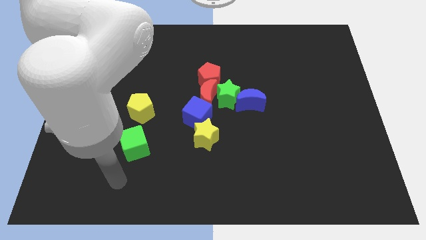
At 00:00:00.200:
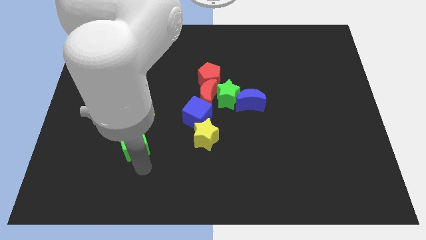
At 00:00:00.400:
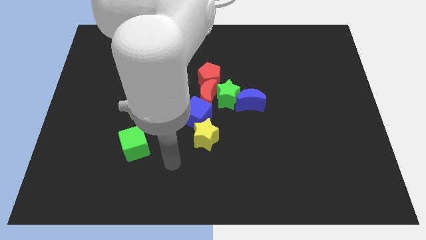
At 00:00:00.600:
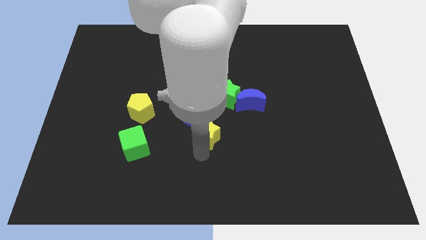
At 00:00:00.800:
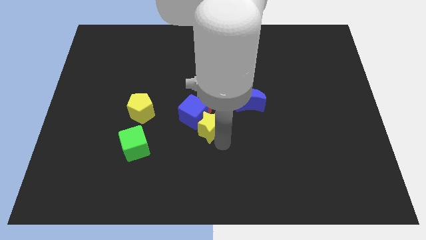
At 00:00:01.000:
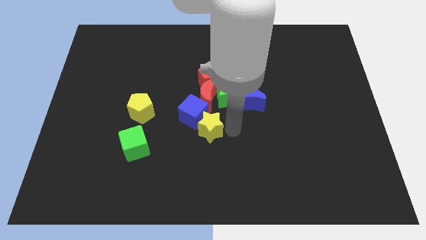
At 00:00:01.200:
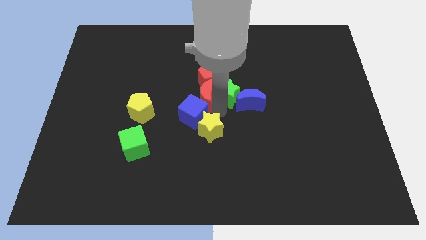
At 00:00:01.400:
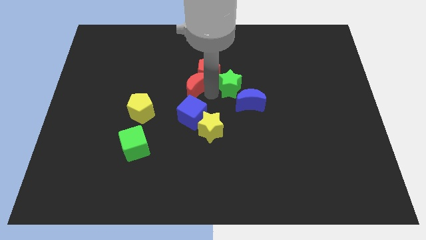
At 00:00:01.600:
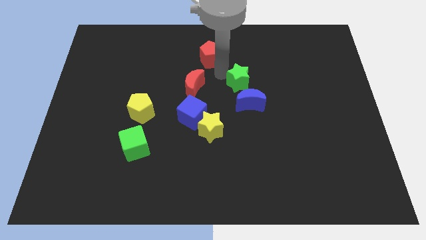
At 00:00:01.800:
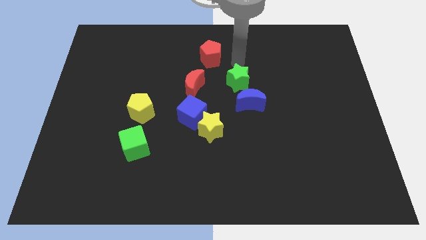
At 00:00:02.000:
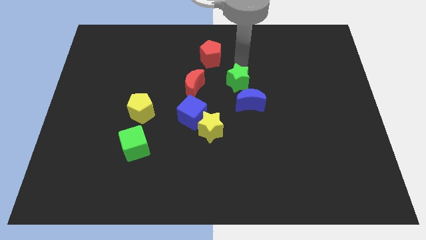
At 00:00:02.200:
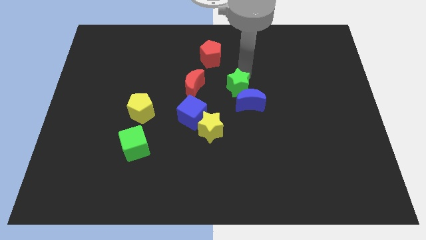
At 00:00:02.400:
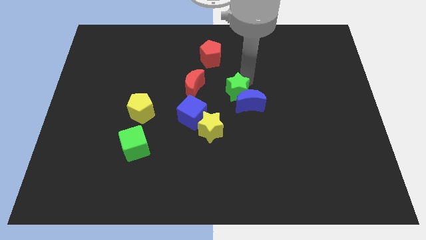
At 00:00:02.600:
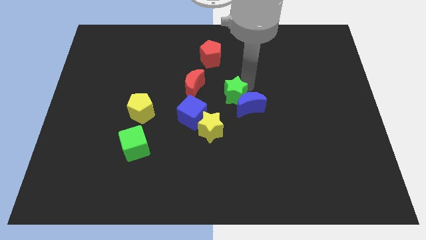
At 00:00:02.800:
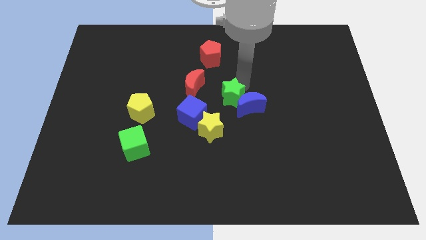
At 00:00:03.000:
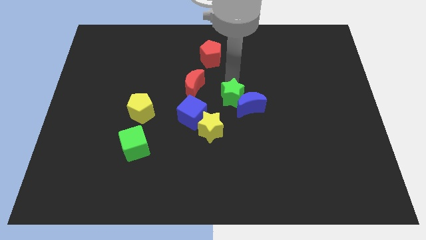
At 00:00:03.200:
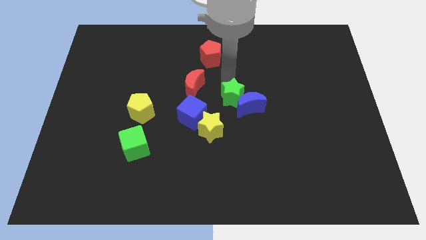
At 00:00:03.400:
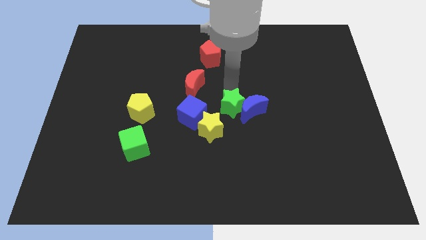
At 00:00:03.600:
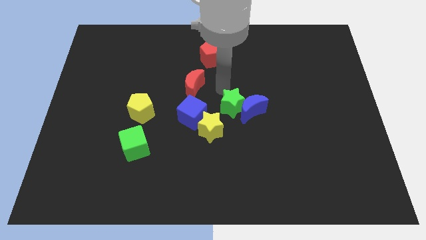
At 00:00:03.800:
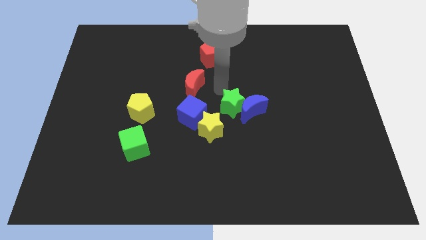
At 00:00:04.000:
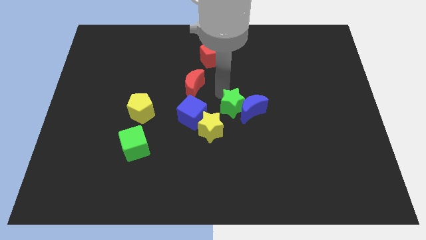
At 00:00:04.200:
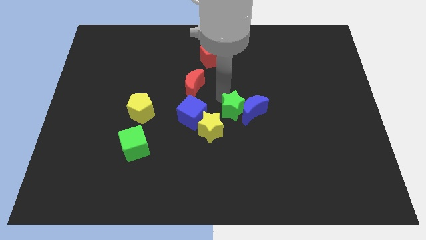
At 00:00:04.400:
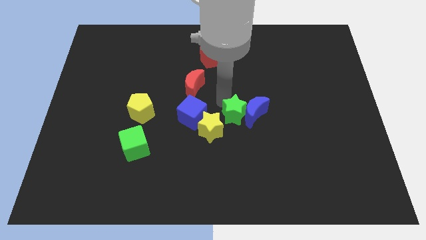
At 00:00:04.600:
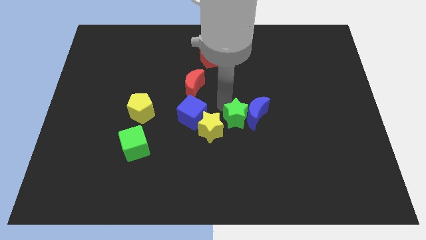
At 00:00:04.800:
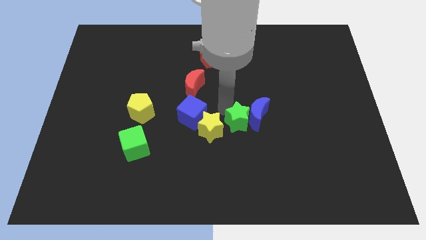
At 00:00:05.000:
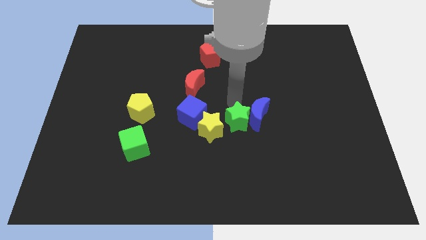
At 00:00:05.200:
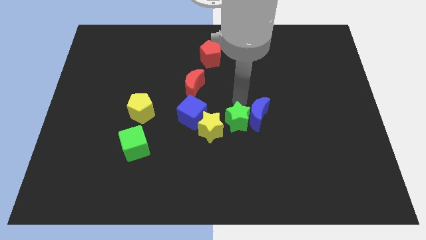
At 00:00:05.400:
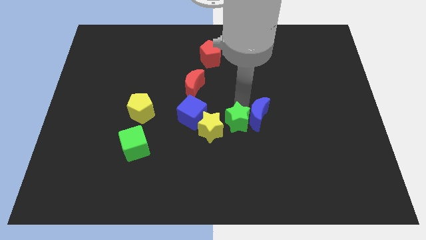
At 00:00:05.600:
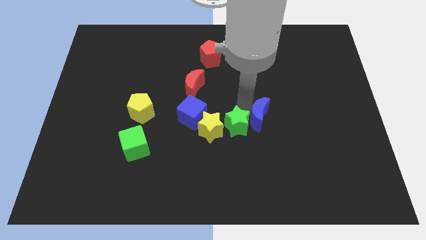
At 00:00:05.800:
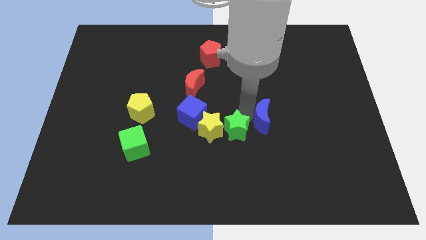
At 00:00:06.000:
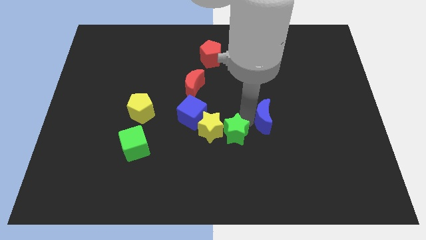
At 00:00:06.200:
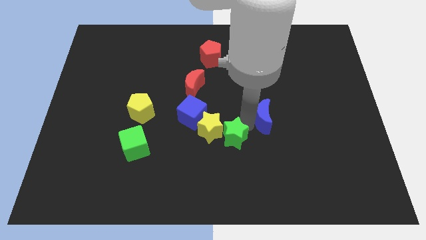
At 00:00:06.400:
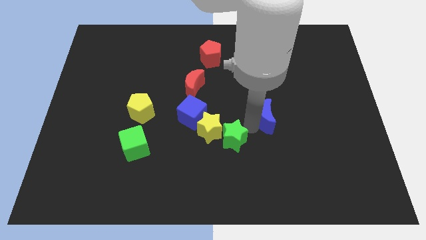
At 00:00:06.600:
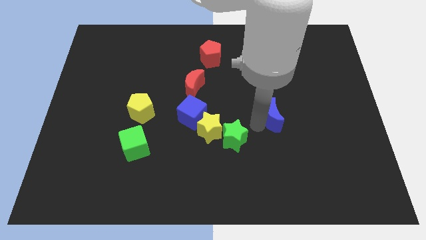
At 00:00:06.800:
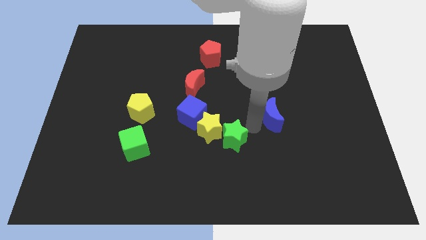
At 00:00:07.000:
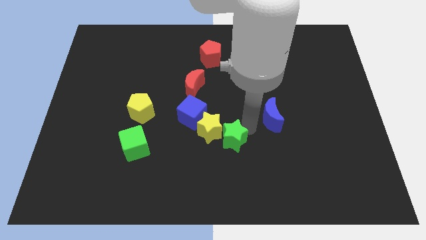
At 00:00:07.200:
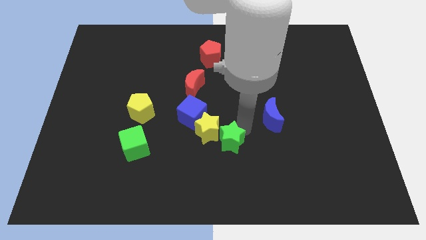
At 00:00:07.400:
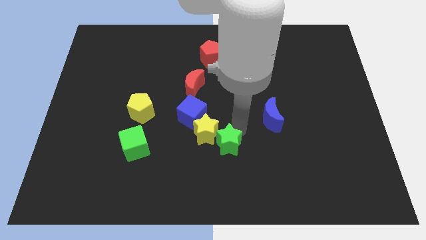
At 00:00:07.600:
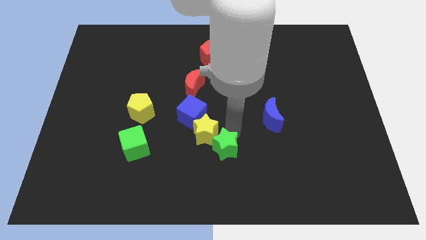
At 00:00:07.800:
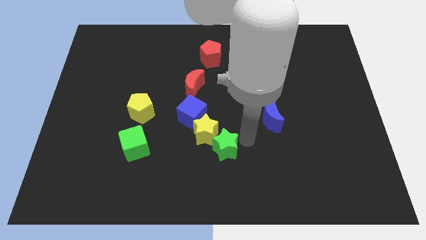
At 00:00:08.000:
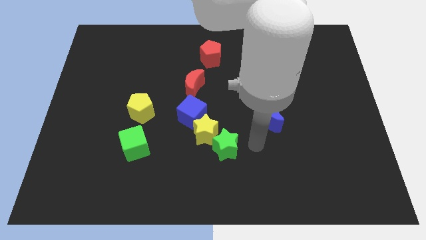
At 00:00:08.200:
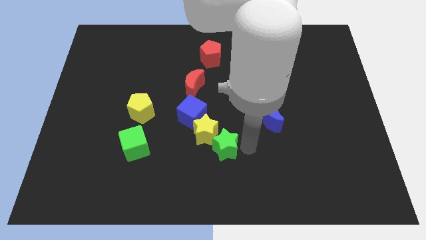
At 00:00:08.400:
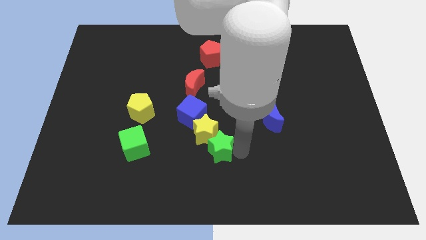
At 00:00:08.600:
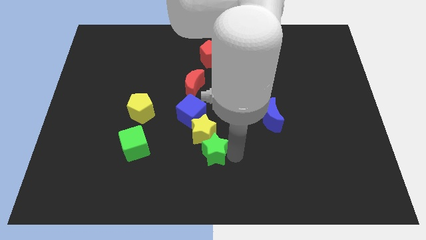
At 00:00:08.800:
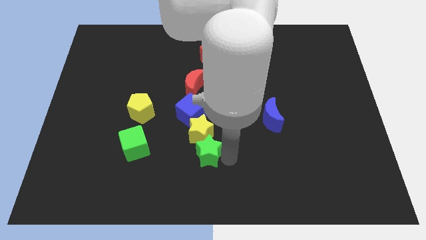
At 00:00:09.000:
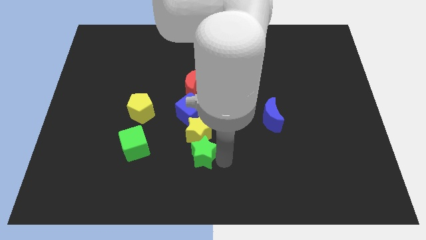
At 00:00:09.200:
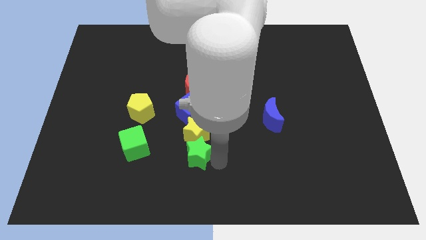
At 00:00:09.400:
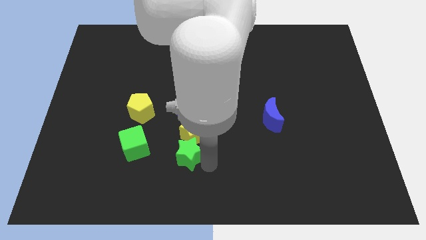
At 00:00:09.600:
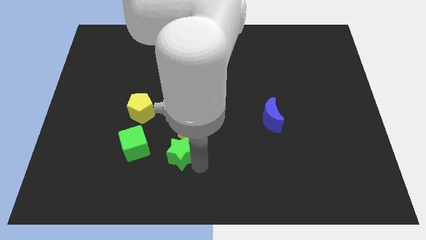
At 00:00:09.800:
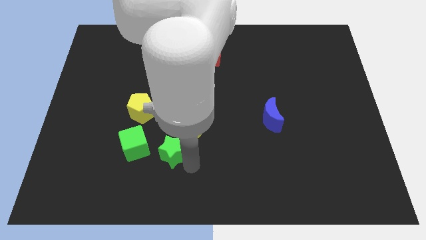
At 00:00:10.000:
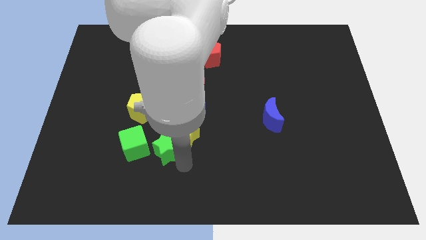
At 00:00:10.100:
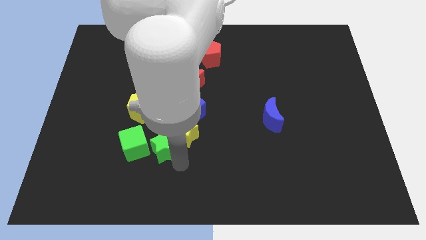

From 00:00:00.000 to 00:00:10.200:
move the green star to the bottom right side of the yellow pentagon

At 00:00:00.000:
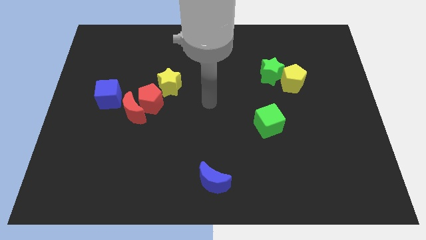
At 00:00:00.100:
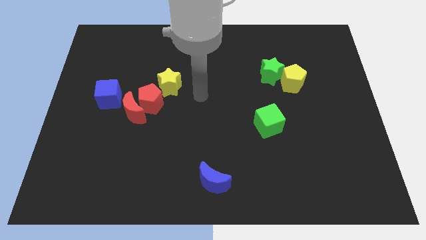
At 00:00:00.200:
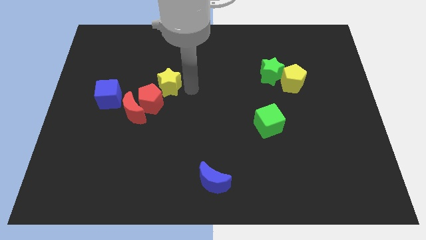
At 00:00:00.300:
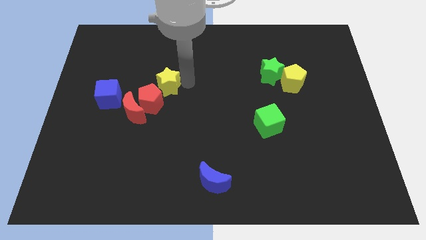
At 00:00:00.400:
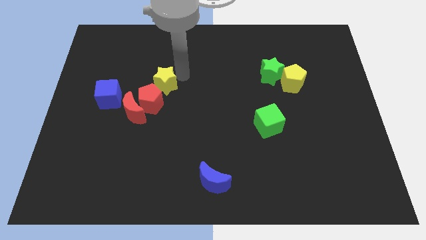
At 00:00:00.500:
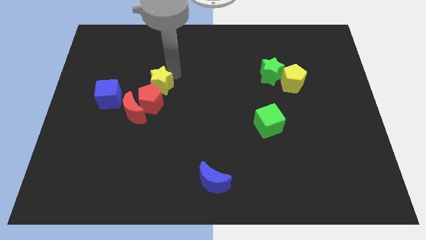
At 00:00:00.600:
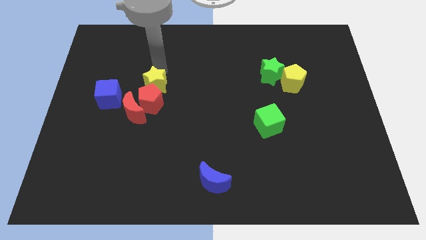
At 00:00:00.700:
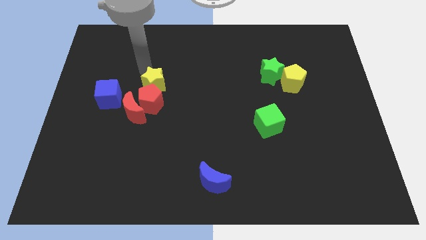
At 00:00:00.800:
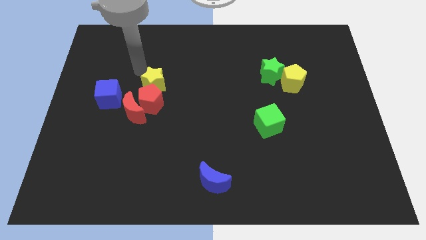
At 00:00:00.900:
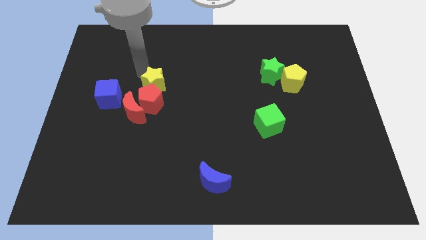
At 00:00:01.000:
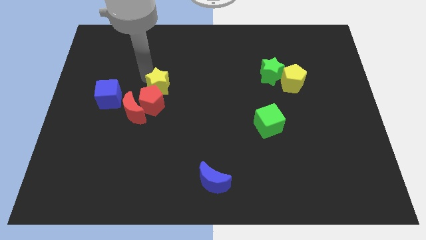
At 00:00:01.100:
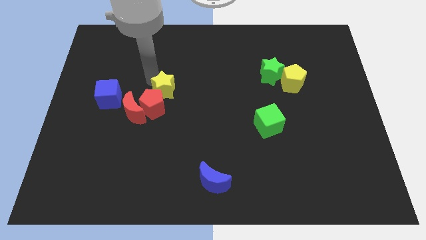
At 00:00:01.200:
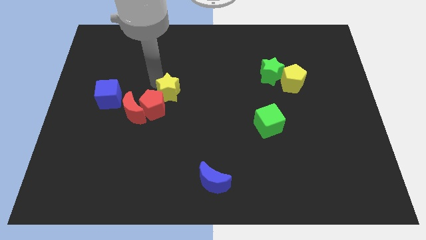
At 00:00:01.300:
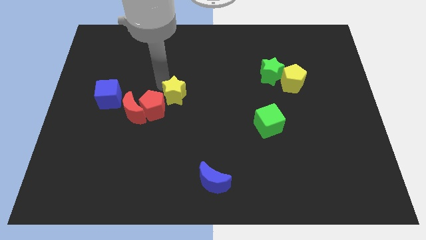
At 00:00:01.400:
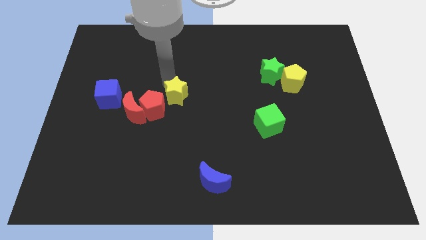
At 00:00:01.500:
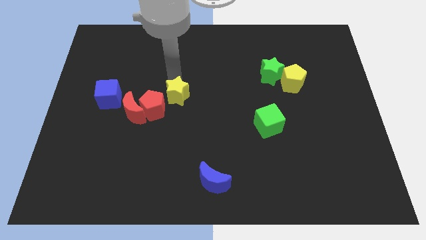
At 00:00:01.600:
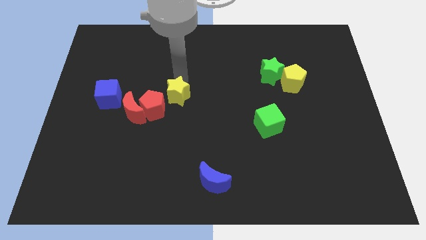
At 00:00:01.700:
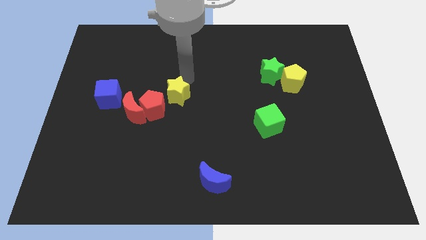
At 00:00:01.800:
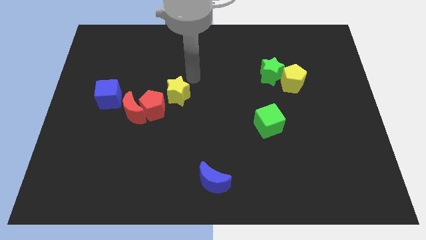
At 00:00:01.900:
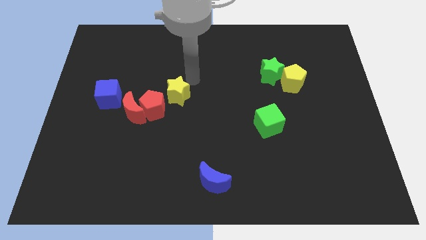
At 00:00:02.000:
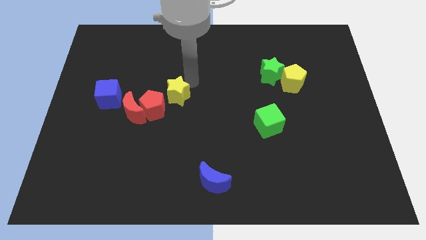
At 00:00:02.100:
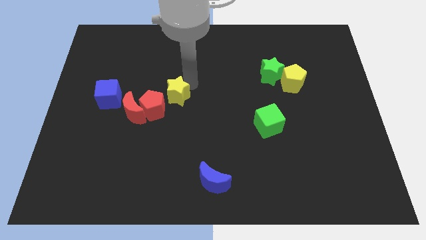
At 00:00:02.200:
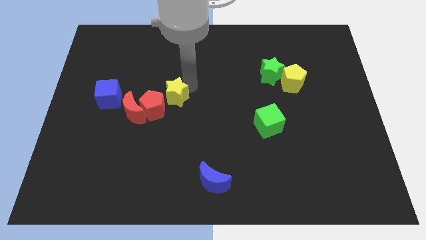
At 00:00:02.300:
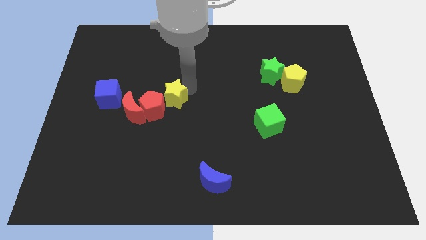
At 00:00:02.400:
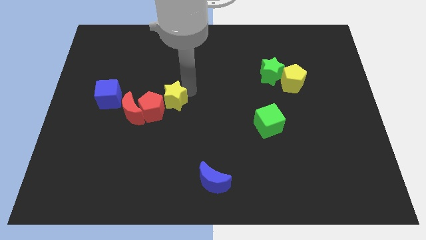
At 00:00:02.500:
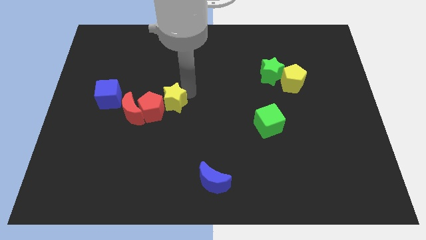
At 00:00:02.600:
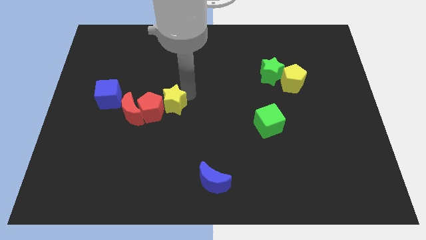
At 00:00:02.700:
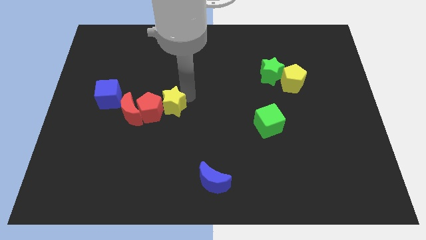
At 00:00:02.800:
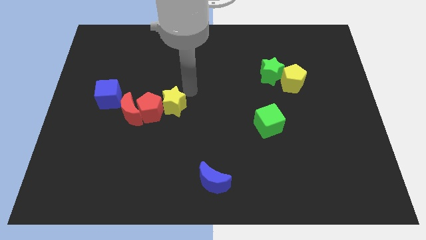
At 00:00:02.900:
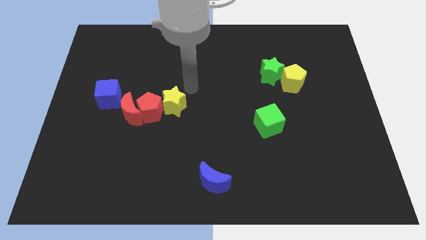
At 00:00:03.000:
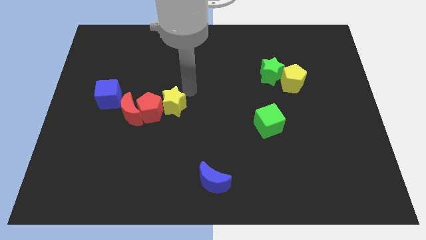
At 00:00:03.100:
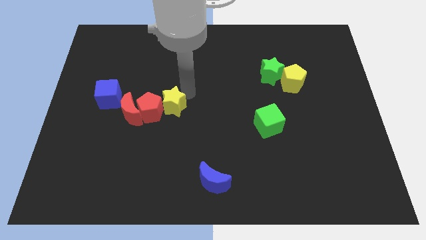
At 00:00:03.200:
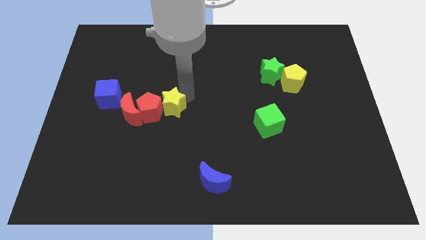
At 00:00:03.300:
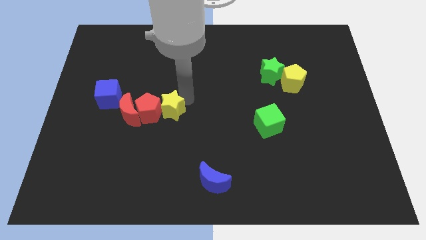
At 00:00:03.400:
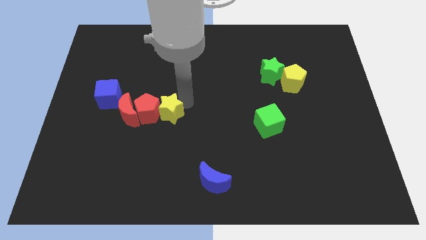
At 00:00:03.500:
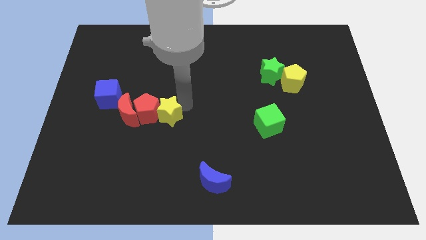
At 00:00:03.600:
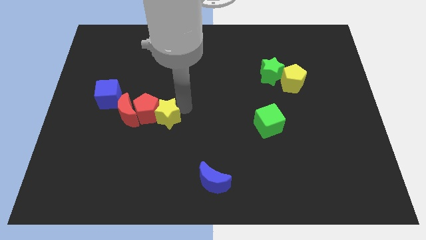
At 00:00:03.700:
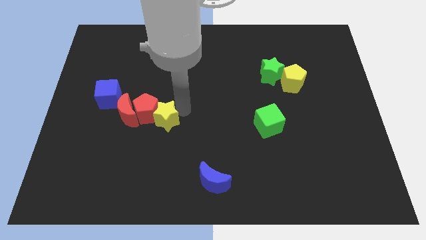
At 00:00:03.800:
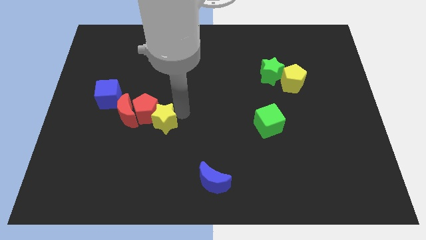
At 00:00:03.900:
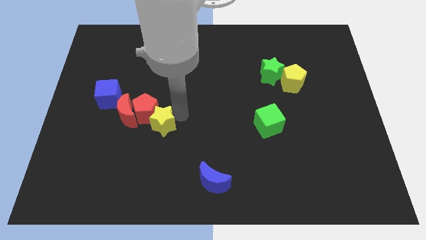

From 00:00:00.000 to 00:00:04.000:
push the yellow star to the bottom right of the red moon
